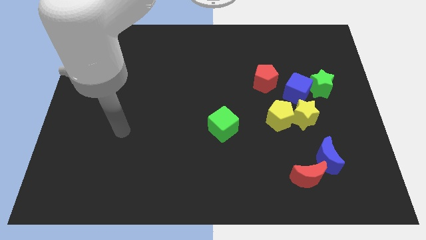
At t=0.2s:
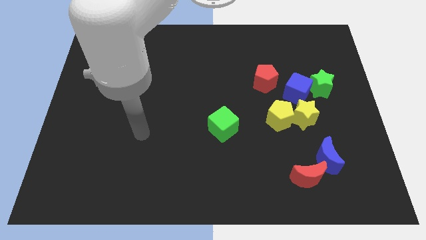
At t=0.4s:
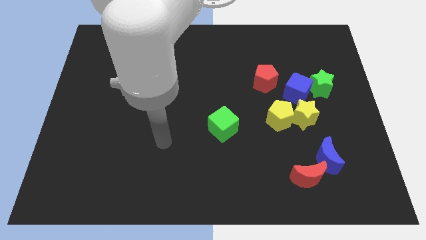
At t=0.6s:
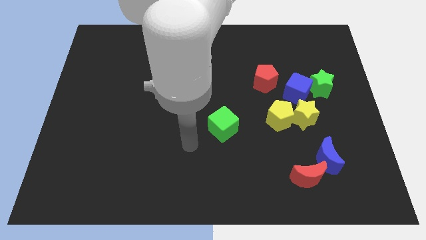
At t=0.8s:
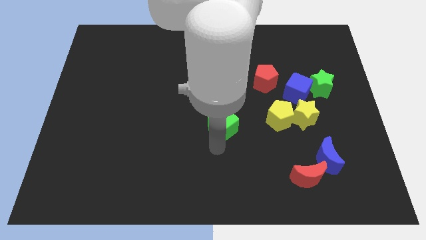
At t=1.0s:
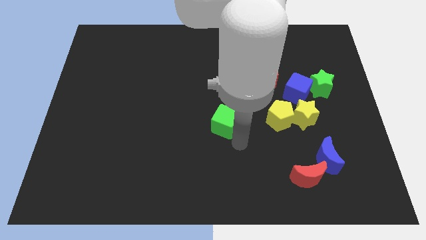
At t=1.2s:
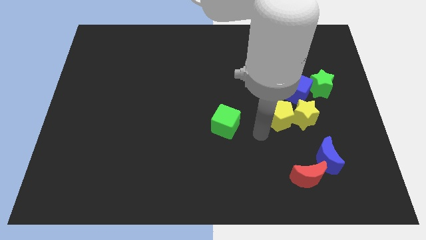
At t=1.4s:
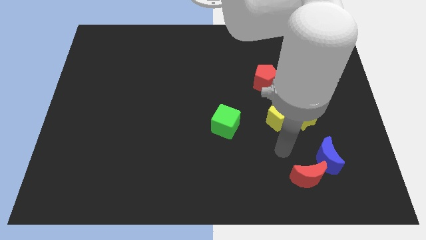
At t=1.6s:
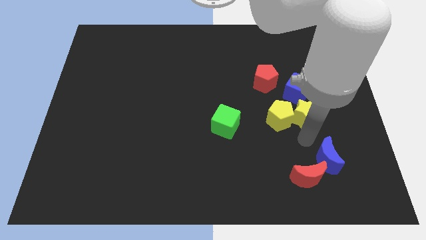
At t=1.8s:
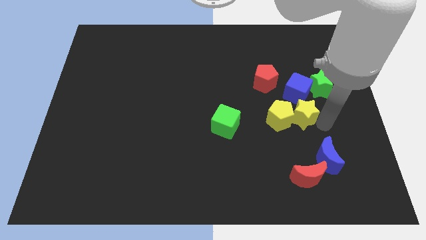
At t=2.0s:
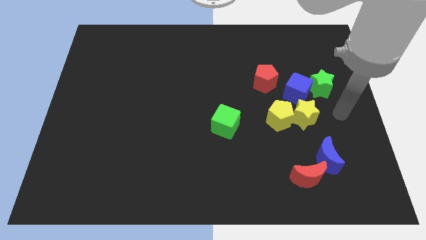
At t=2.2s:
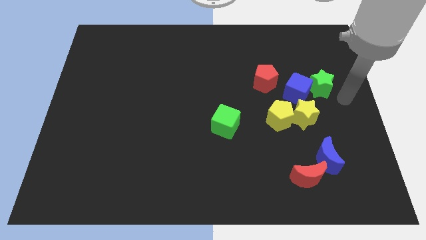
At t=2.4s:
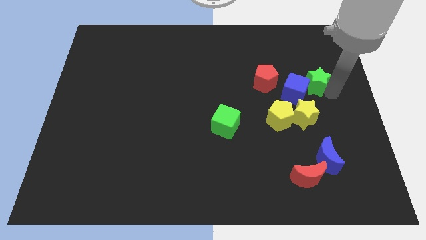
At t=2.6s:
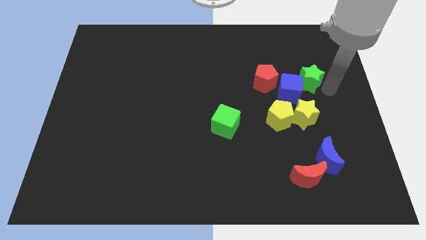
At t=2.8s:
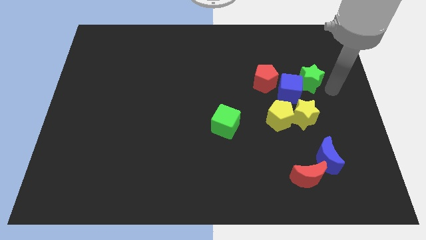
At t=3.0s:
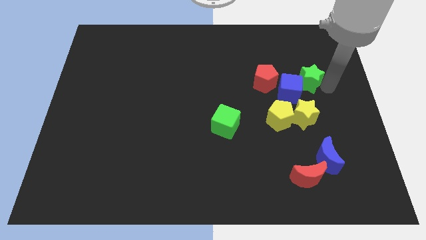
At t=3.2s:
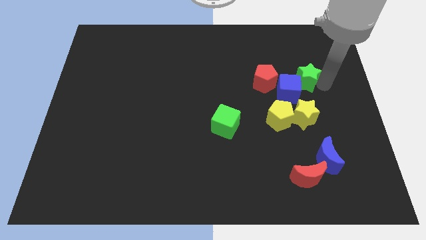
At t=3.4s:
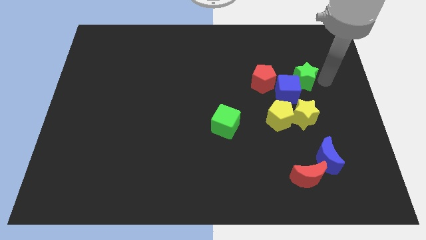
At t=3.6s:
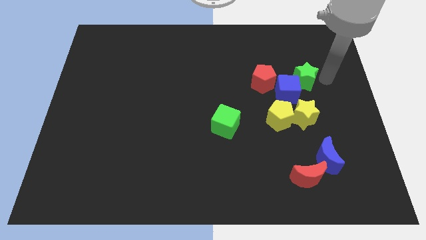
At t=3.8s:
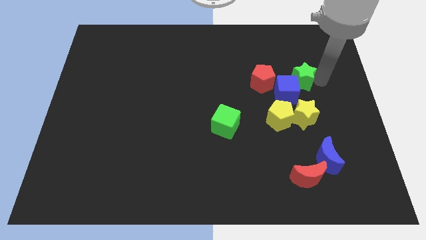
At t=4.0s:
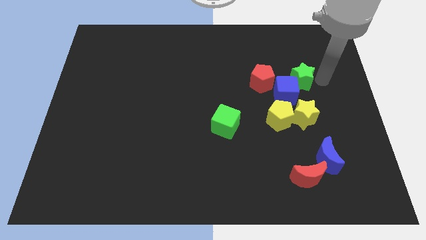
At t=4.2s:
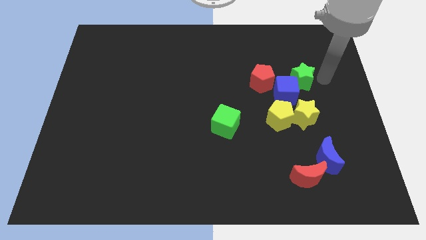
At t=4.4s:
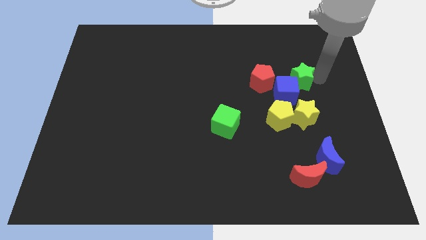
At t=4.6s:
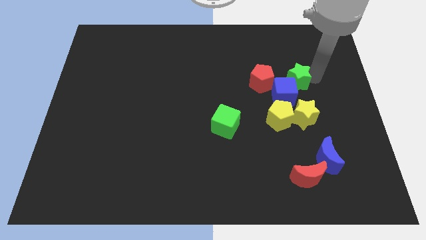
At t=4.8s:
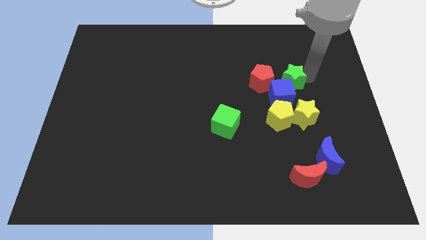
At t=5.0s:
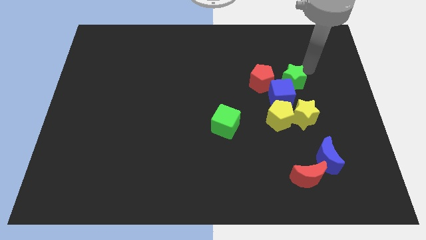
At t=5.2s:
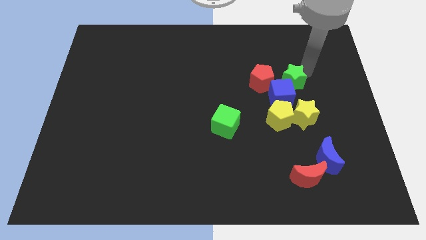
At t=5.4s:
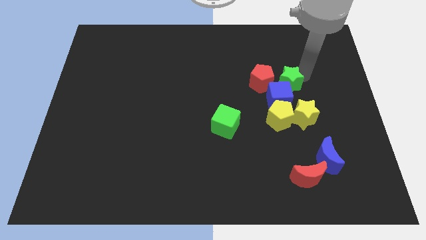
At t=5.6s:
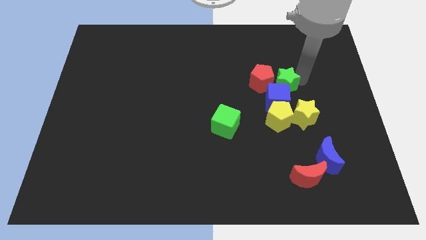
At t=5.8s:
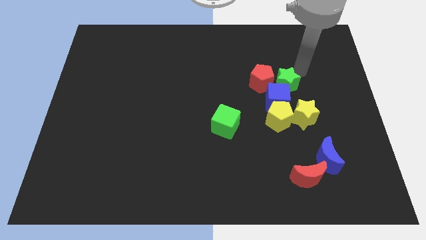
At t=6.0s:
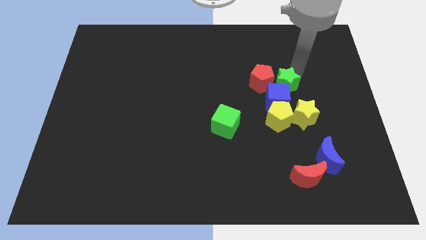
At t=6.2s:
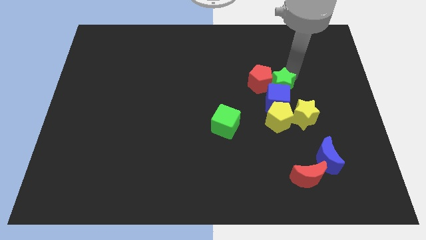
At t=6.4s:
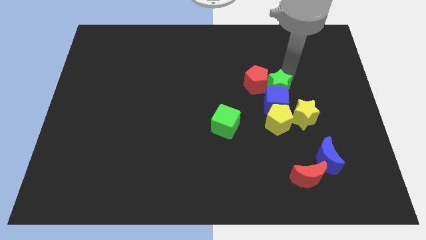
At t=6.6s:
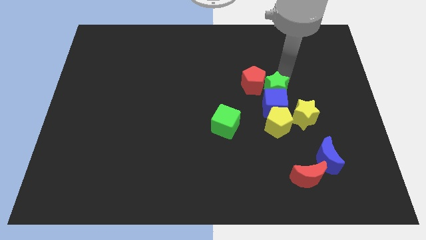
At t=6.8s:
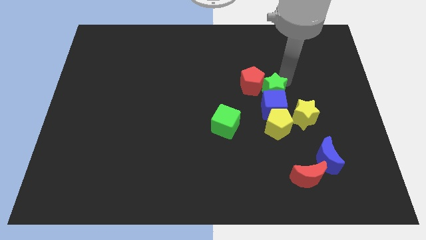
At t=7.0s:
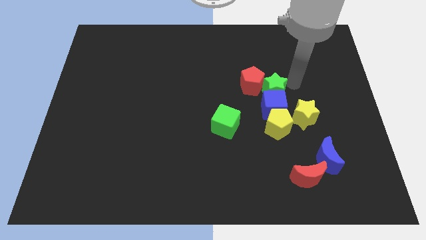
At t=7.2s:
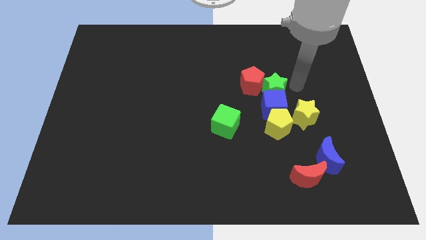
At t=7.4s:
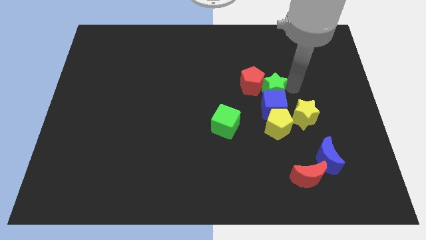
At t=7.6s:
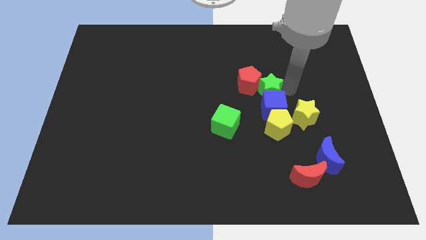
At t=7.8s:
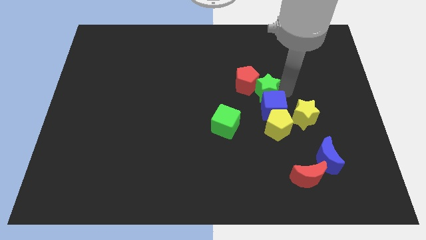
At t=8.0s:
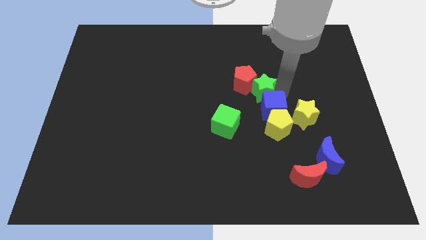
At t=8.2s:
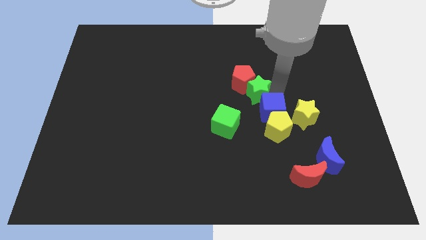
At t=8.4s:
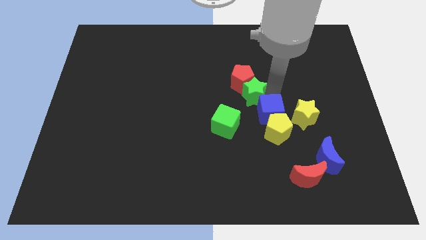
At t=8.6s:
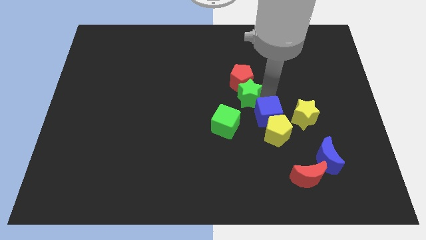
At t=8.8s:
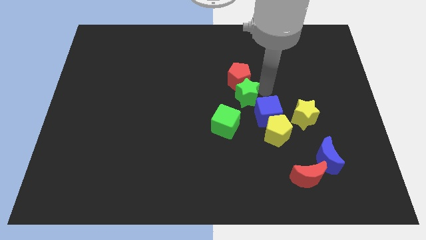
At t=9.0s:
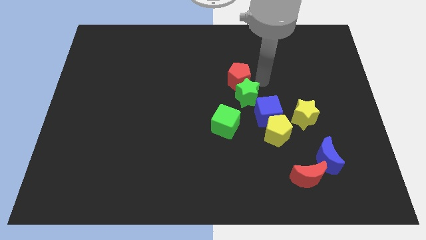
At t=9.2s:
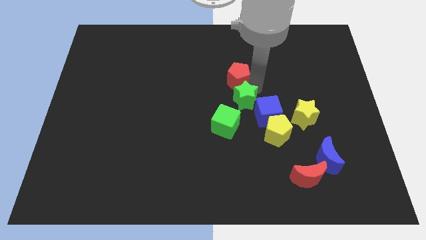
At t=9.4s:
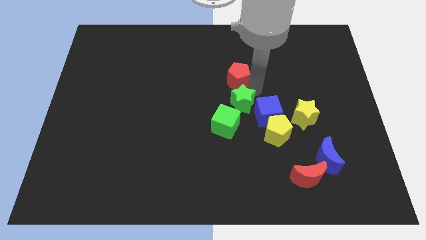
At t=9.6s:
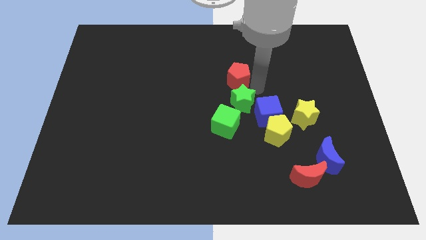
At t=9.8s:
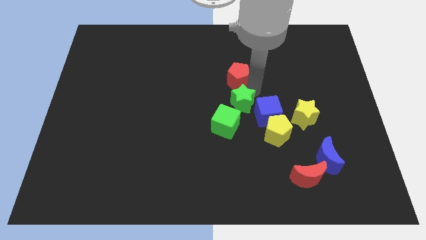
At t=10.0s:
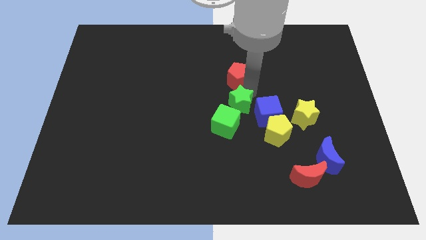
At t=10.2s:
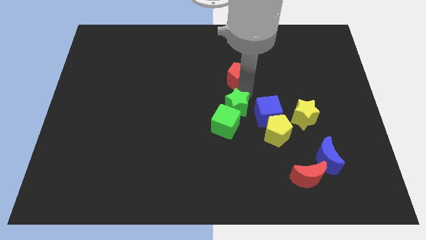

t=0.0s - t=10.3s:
put the green star close to the green cube

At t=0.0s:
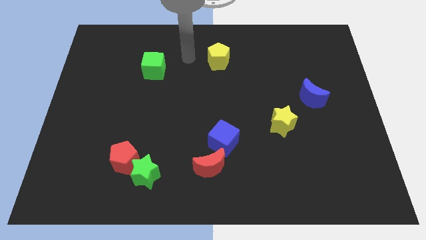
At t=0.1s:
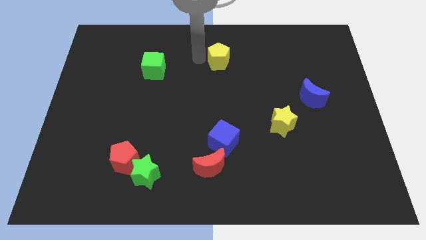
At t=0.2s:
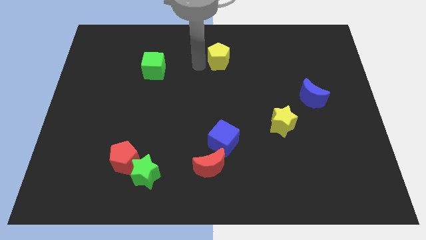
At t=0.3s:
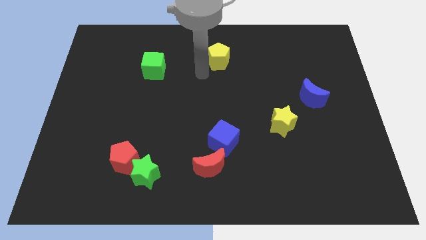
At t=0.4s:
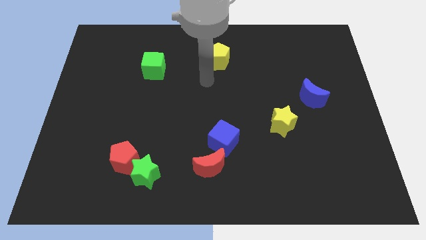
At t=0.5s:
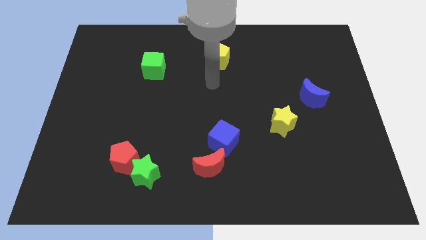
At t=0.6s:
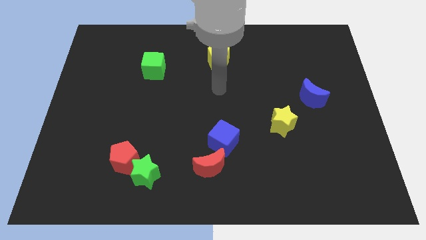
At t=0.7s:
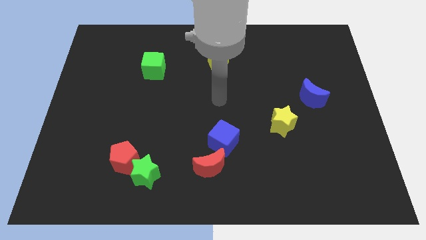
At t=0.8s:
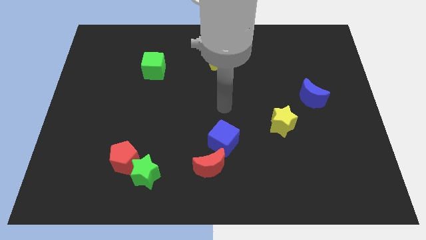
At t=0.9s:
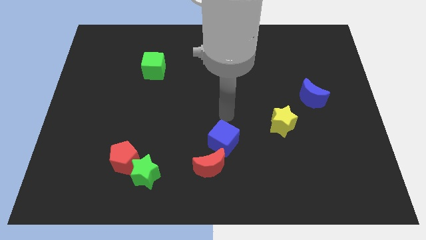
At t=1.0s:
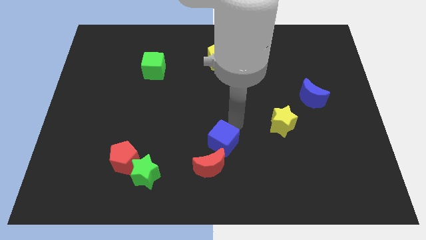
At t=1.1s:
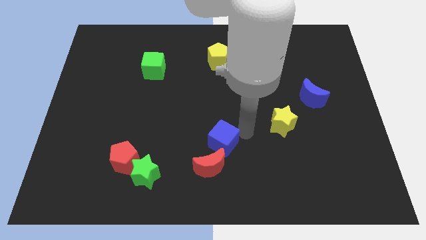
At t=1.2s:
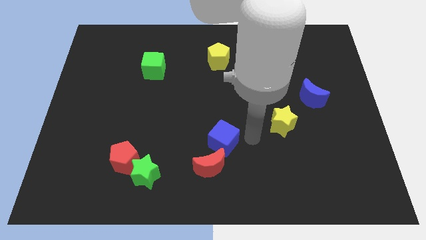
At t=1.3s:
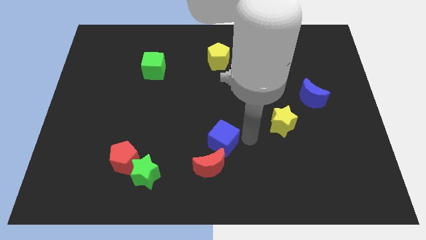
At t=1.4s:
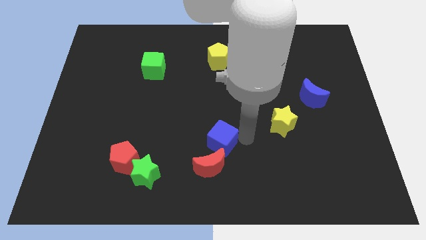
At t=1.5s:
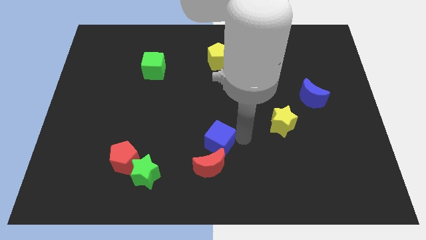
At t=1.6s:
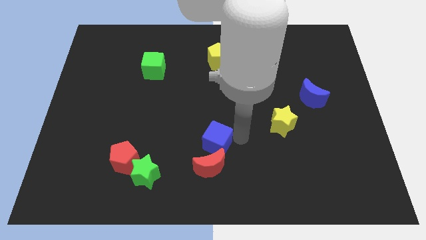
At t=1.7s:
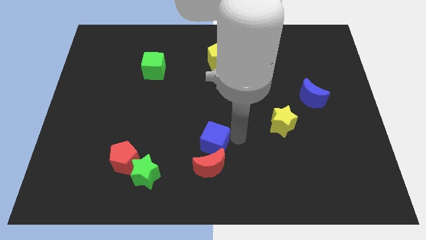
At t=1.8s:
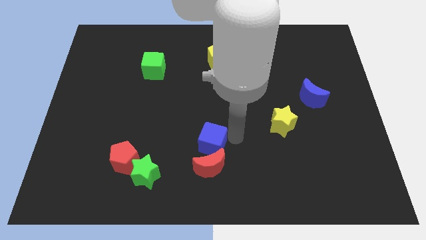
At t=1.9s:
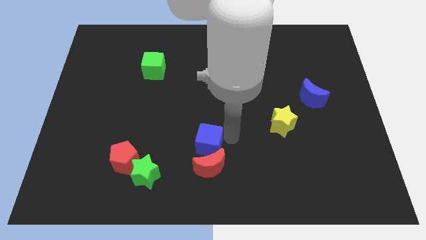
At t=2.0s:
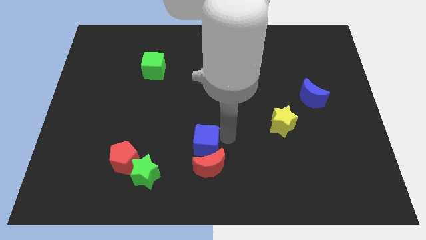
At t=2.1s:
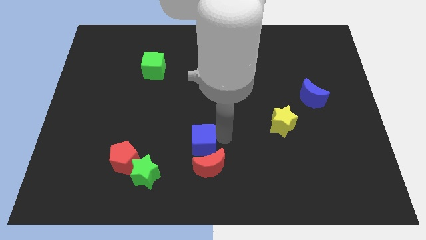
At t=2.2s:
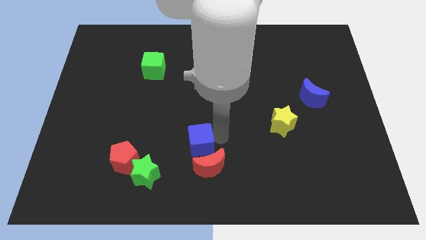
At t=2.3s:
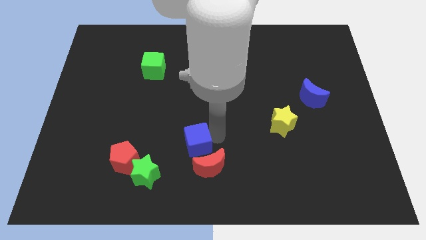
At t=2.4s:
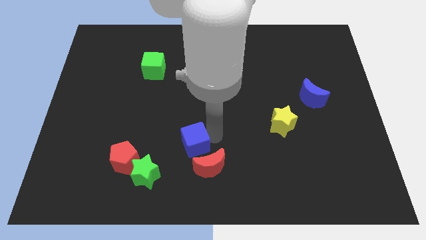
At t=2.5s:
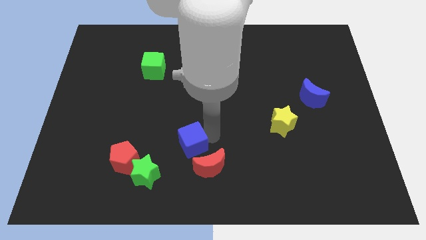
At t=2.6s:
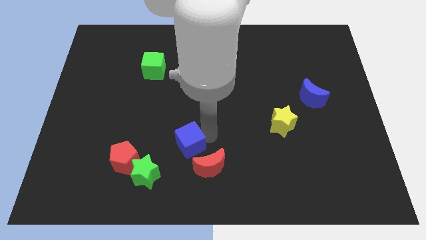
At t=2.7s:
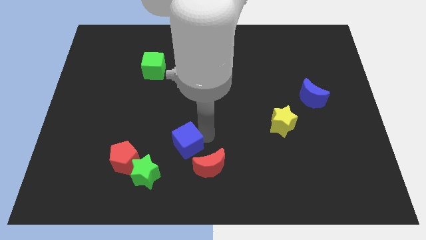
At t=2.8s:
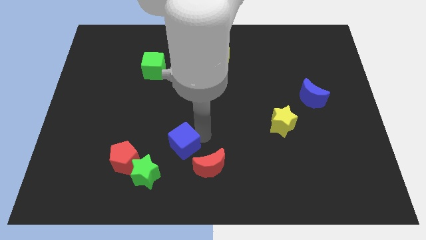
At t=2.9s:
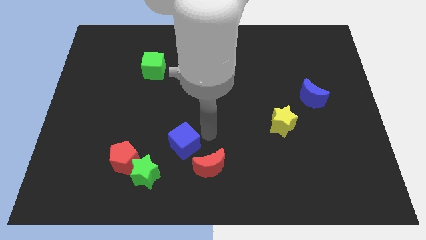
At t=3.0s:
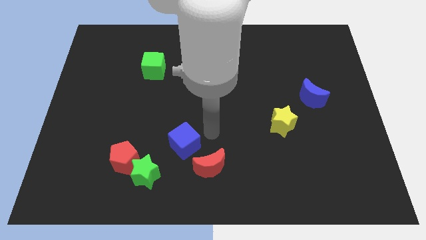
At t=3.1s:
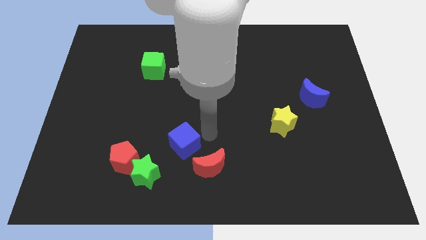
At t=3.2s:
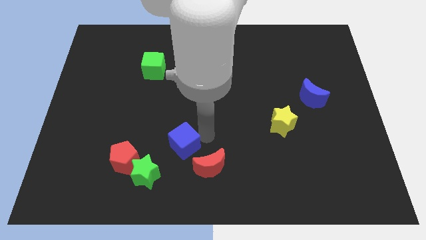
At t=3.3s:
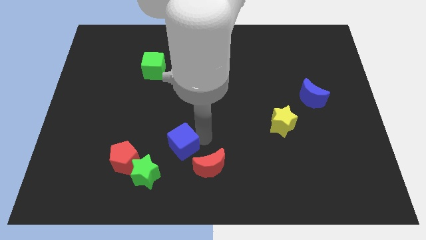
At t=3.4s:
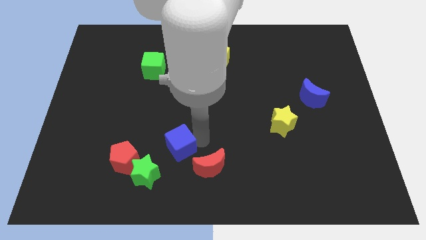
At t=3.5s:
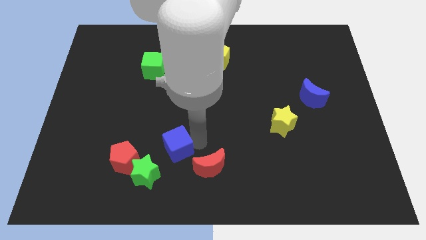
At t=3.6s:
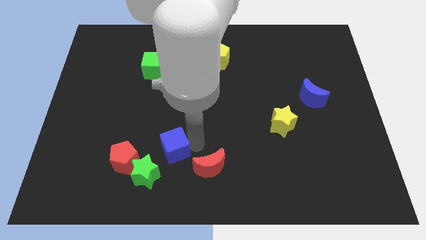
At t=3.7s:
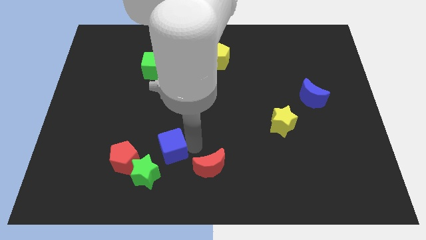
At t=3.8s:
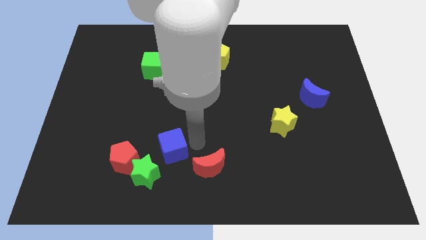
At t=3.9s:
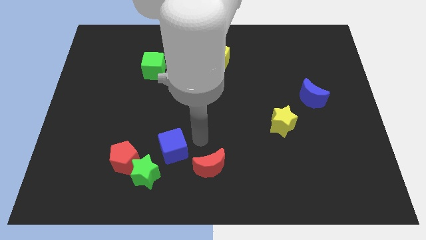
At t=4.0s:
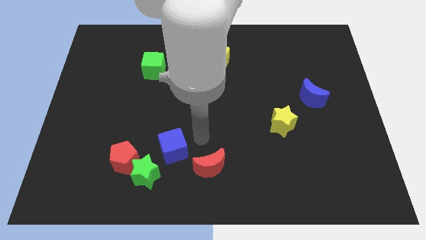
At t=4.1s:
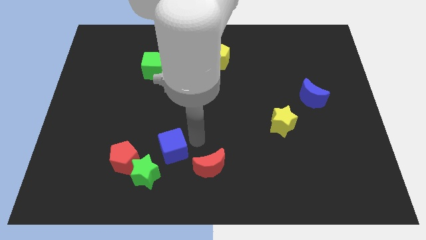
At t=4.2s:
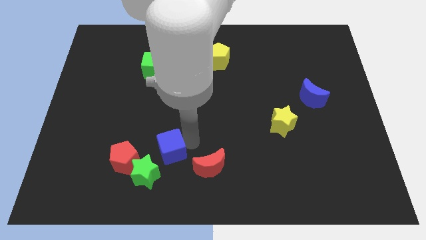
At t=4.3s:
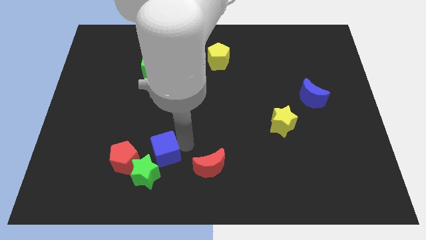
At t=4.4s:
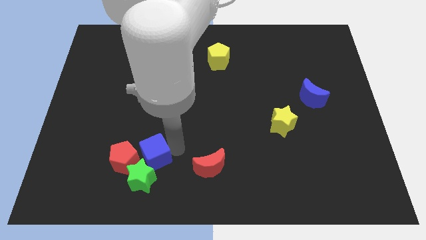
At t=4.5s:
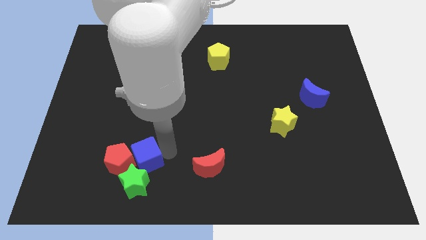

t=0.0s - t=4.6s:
put the blue cube close to the red pentagon
